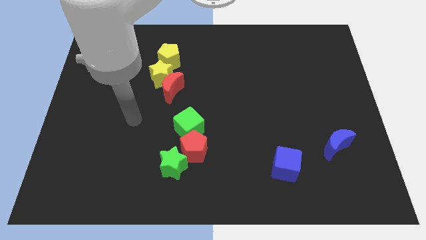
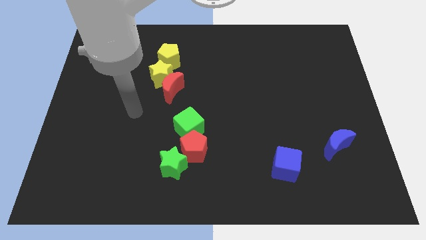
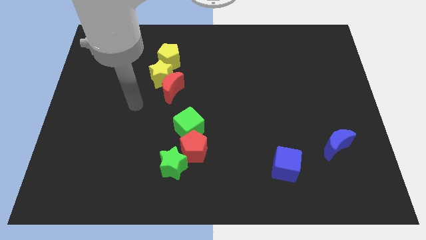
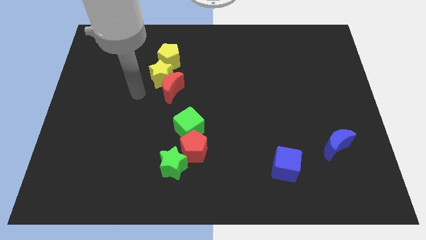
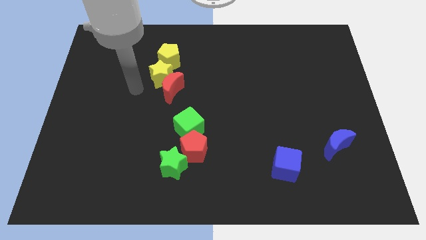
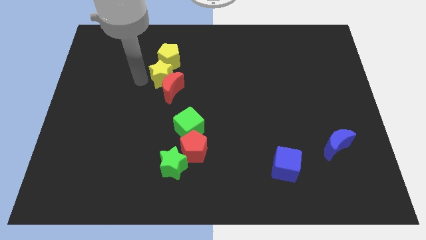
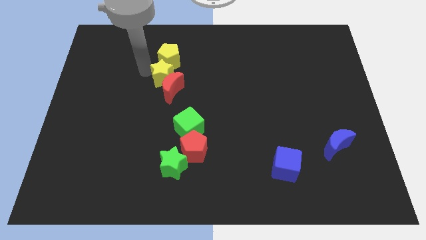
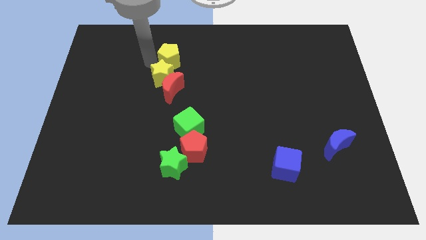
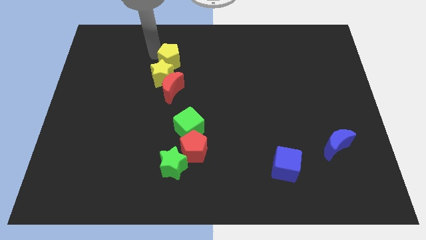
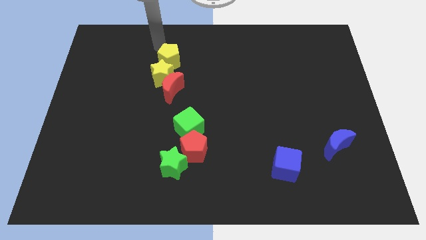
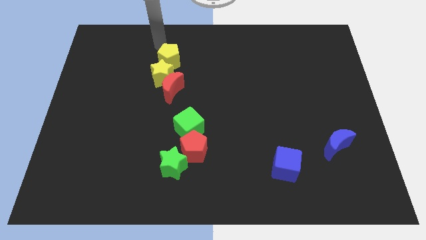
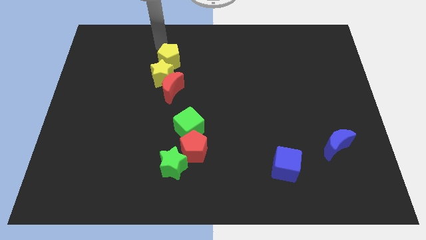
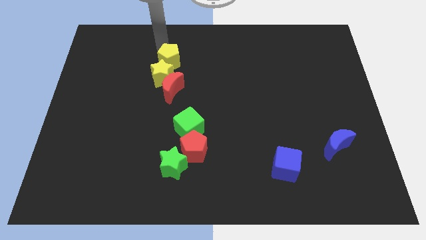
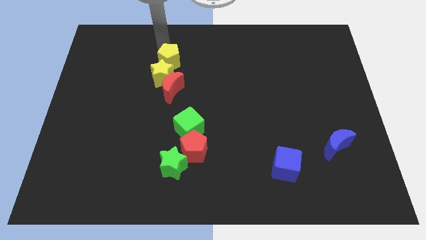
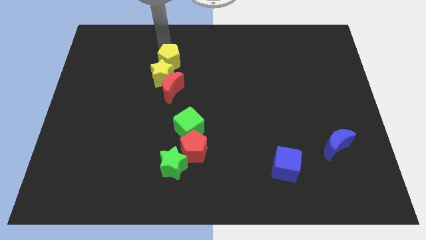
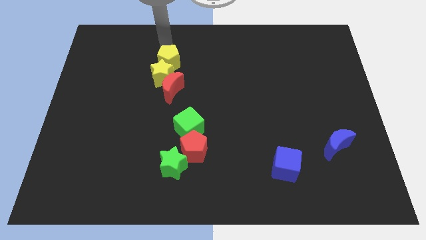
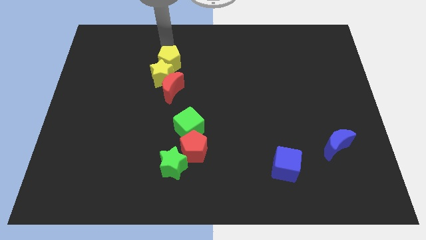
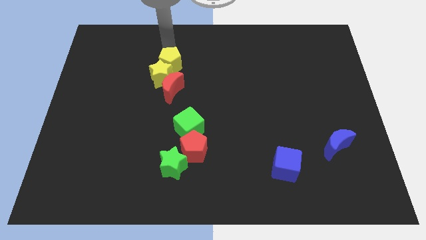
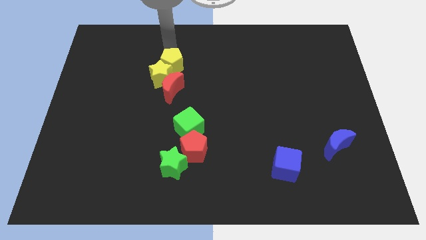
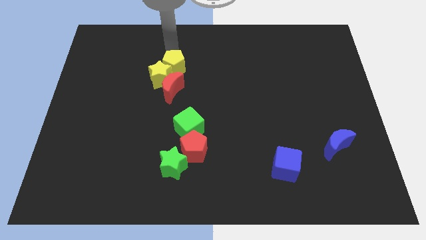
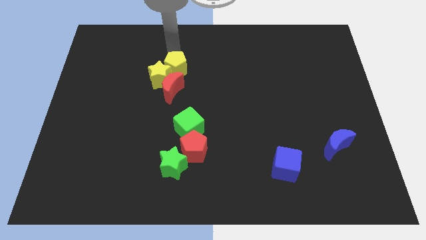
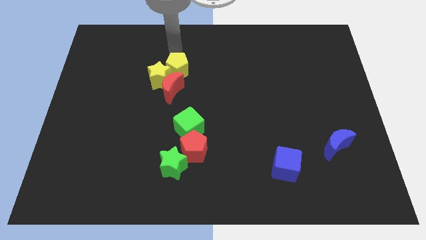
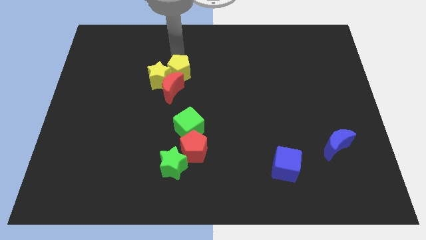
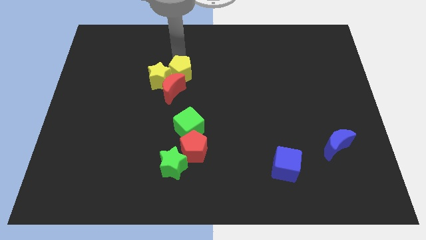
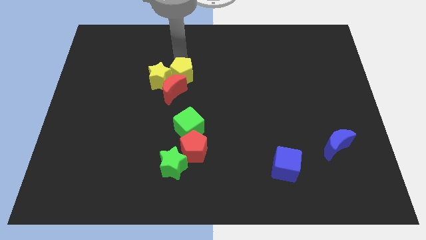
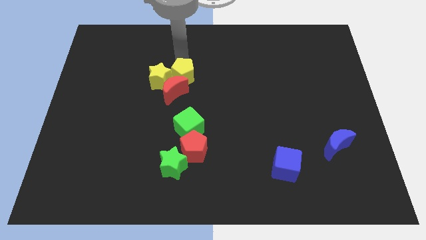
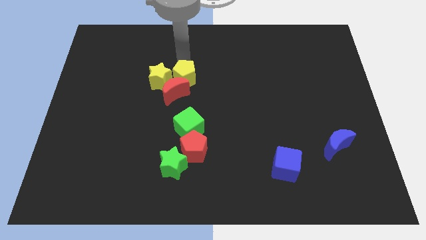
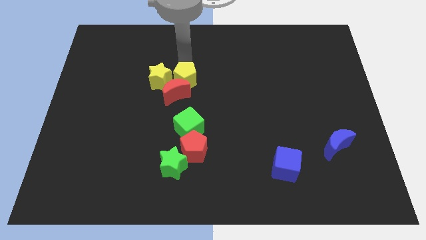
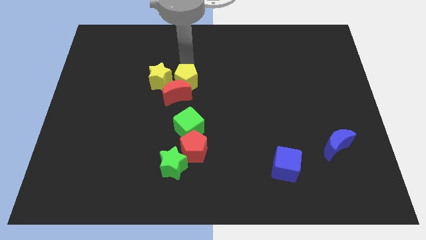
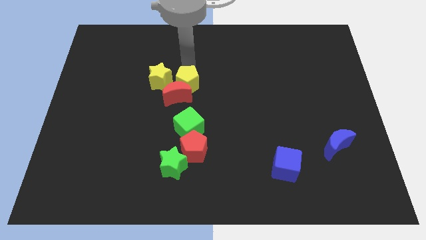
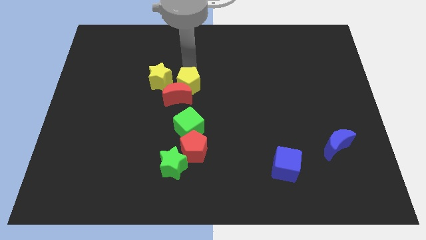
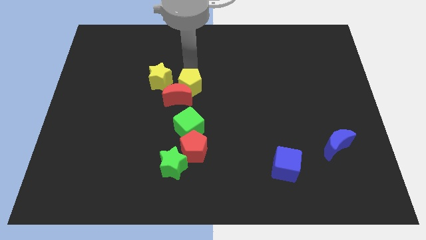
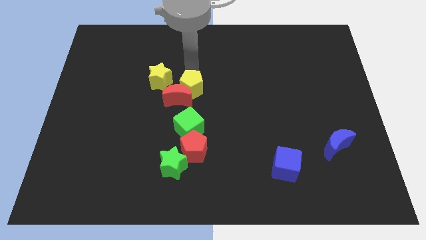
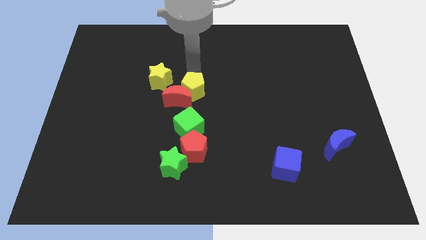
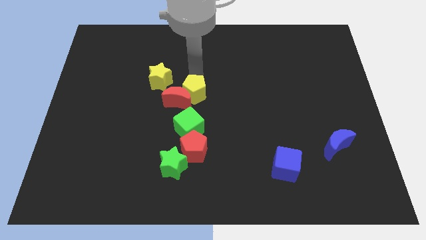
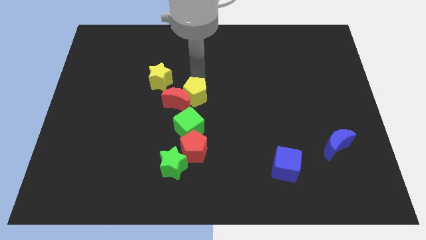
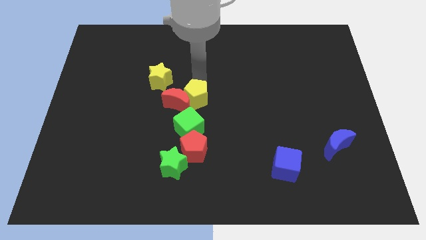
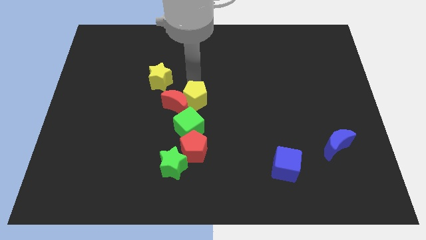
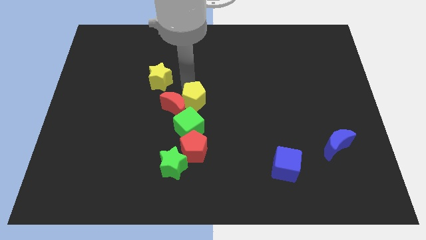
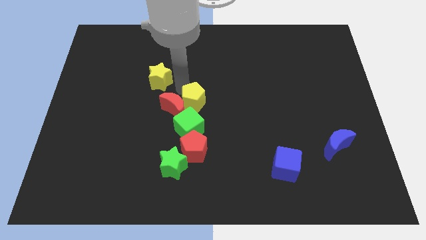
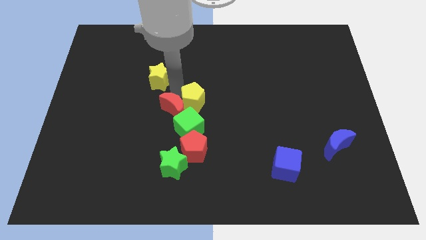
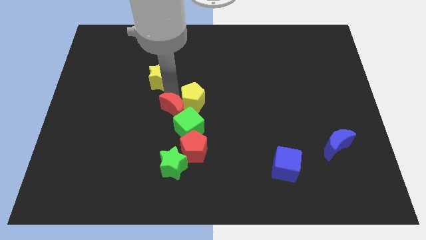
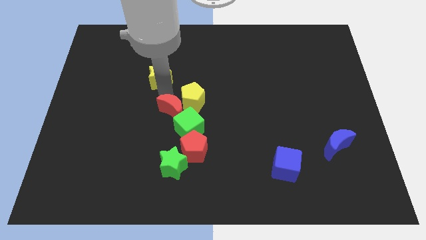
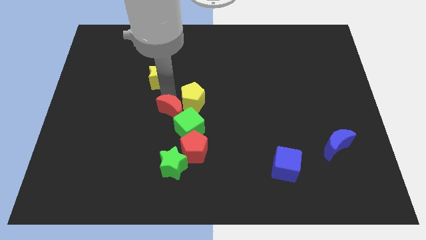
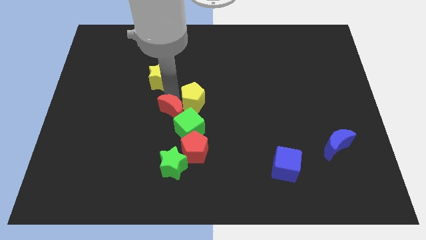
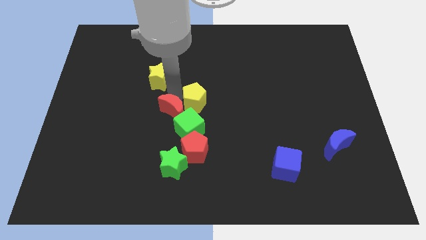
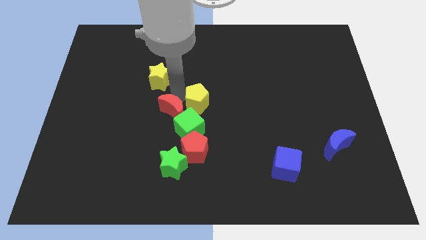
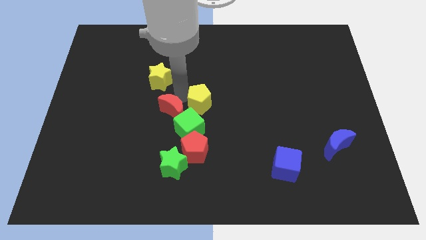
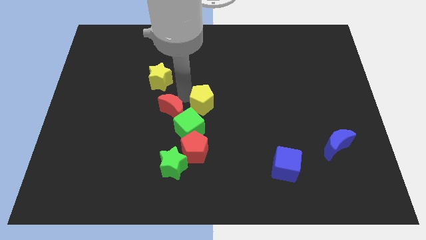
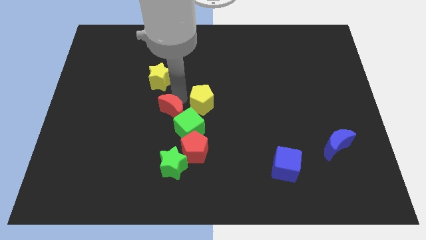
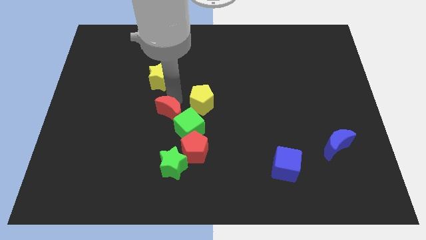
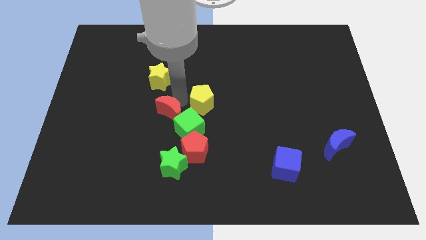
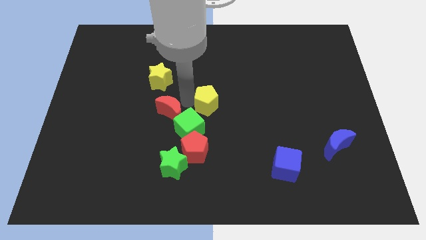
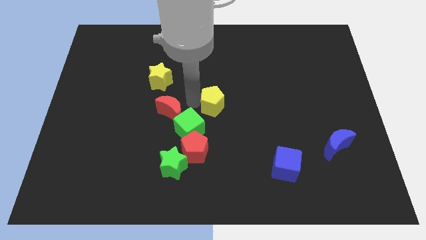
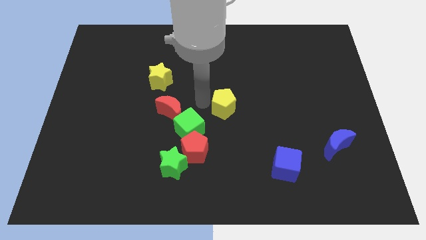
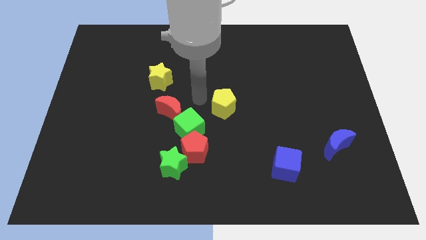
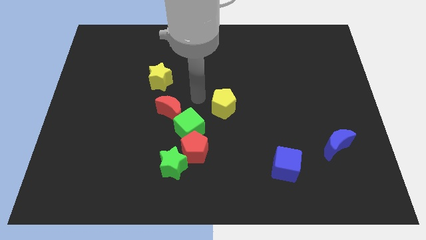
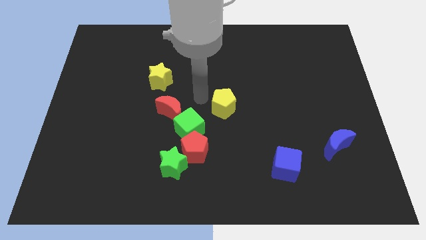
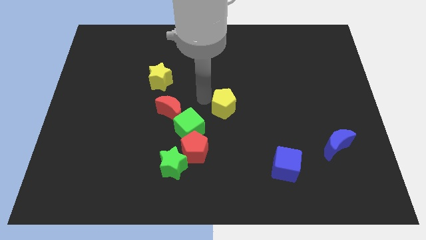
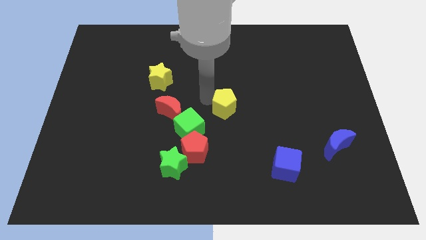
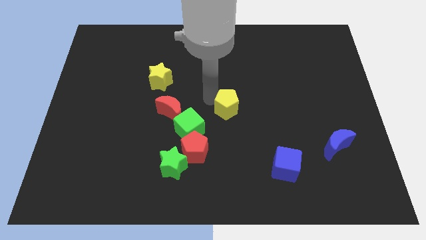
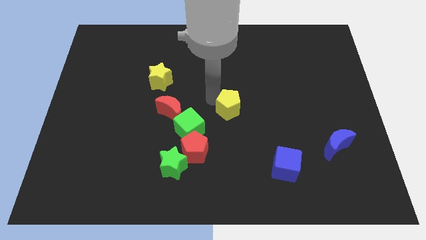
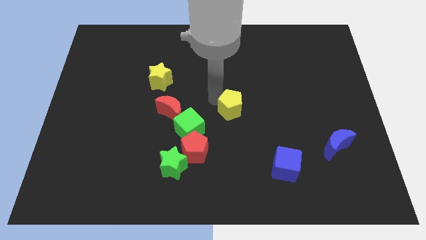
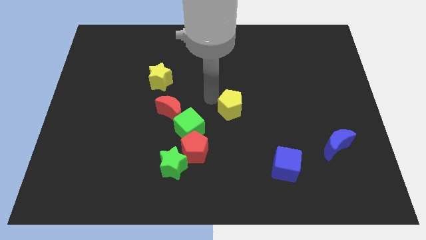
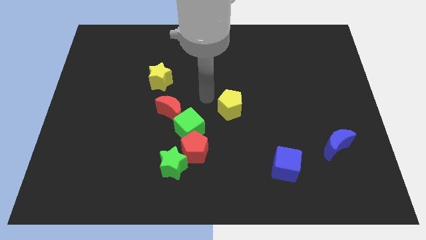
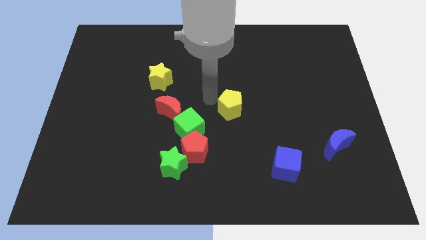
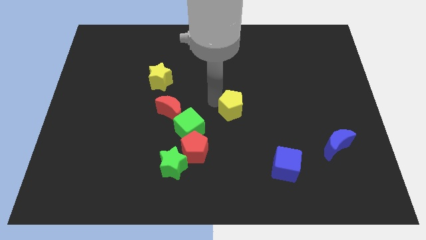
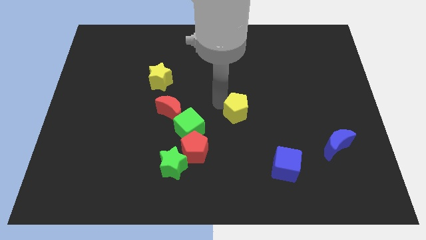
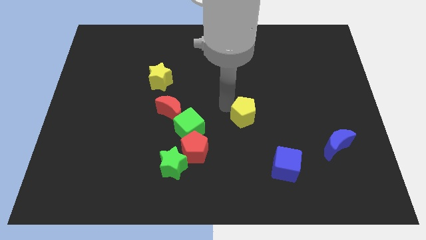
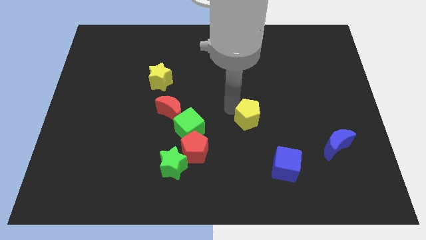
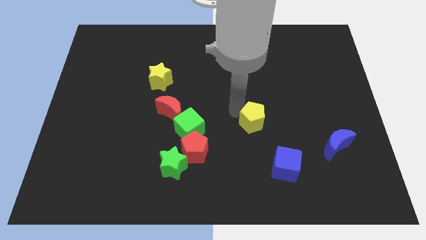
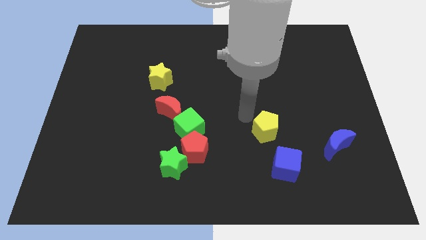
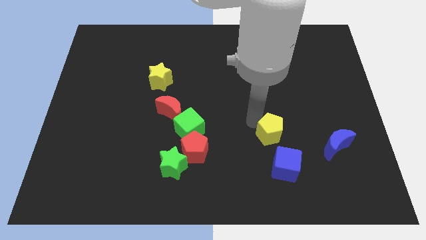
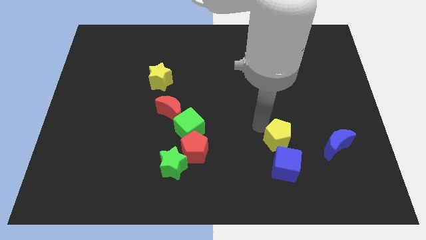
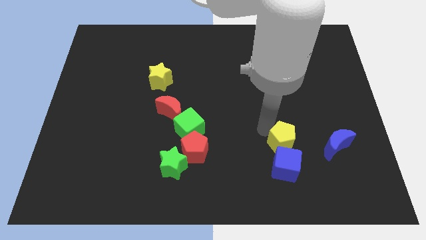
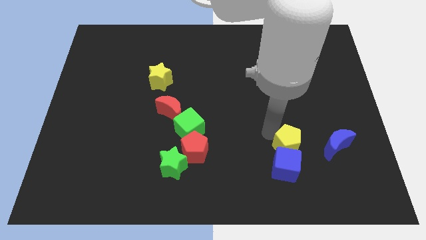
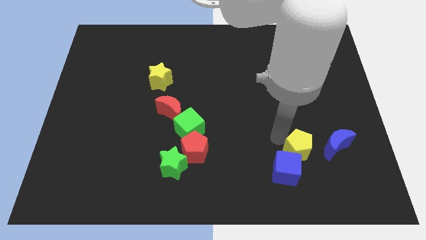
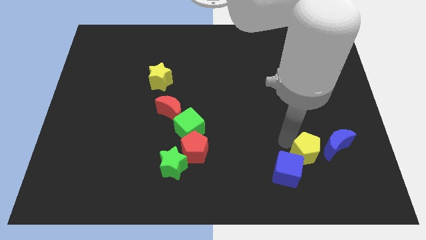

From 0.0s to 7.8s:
push the yellow pentagon to the bottom left side of the blue moon
